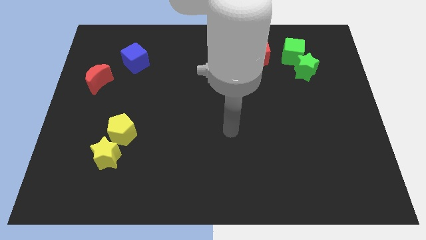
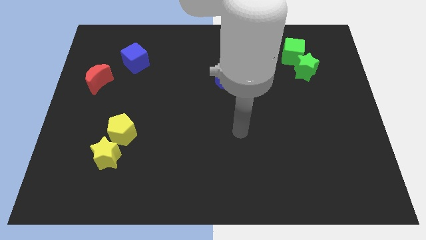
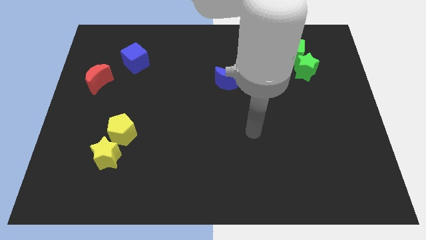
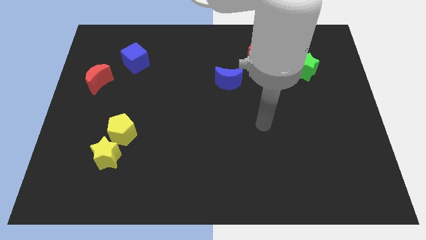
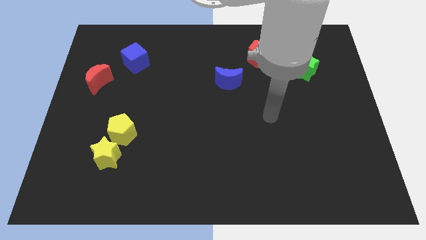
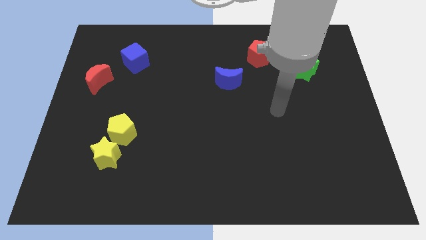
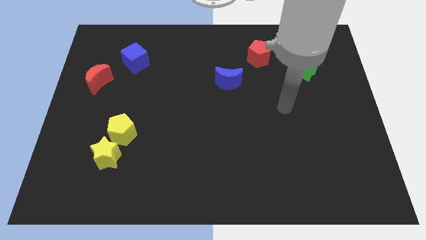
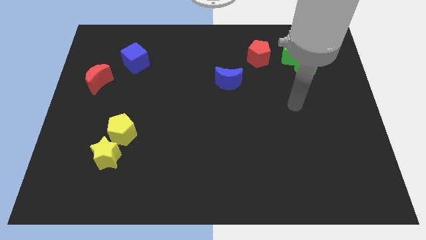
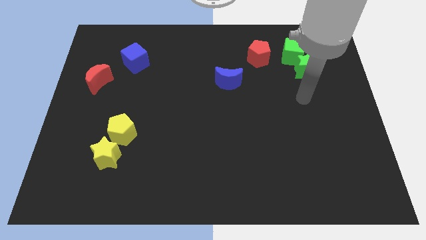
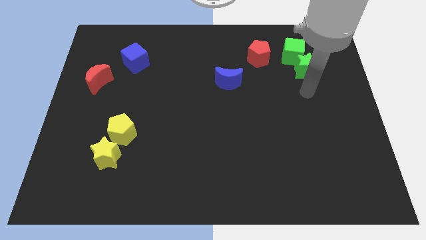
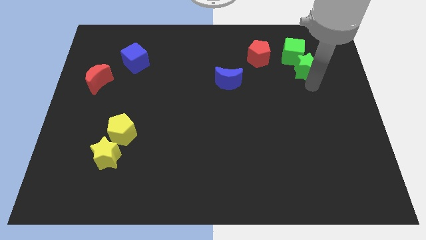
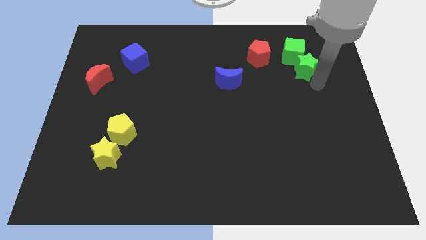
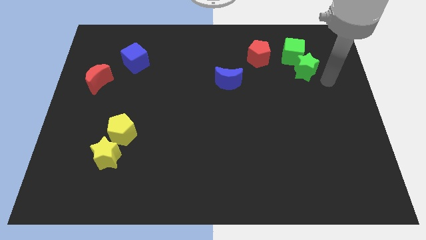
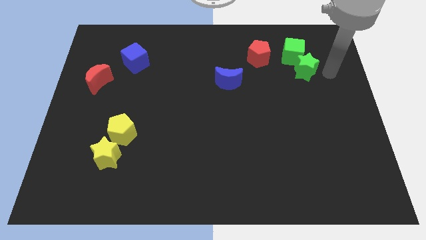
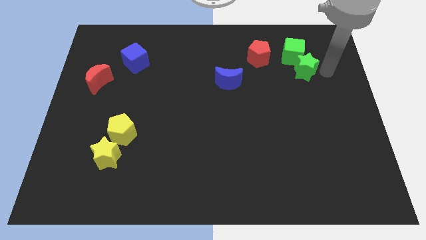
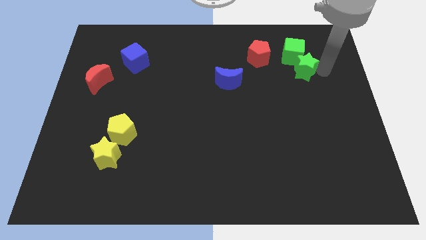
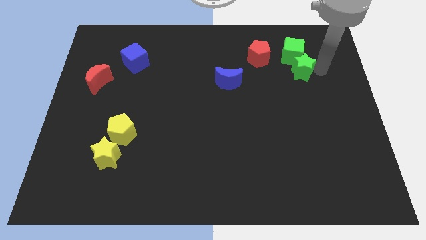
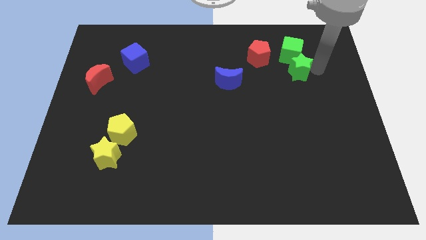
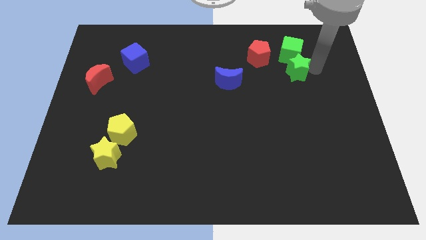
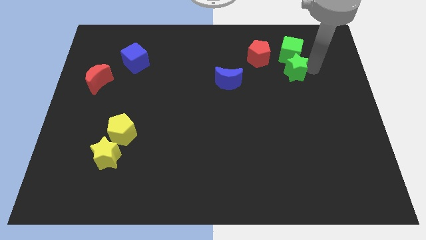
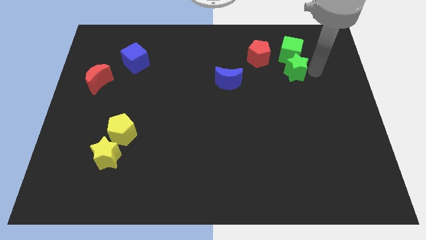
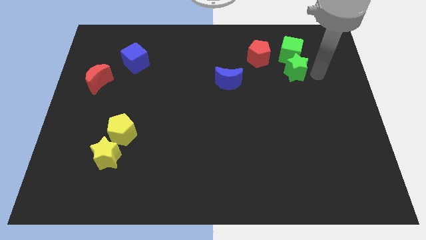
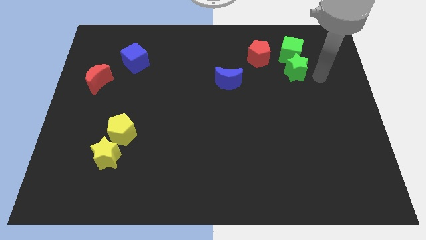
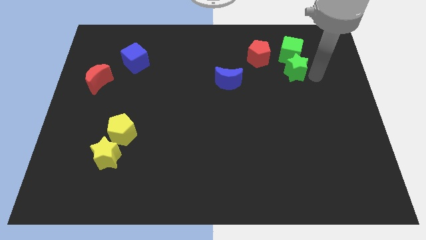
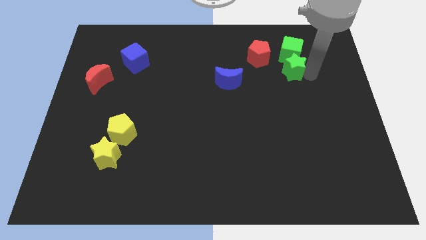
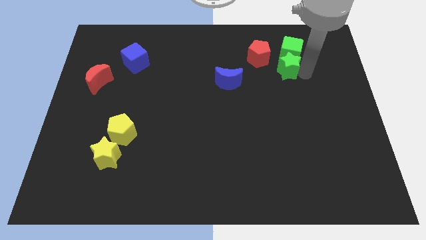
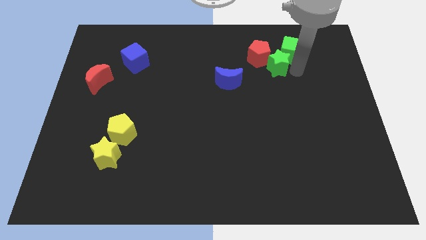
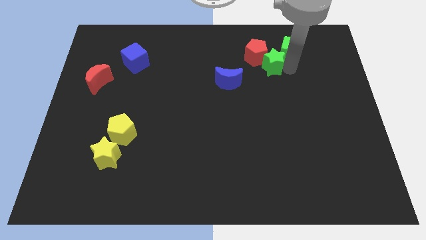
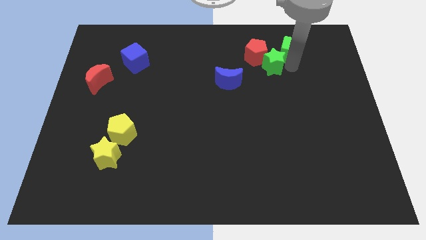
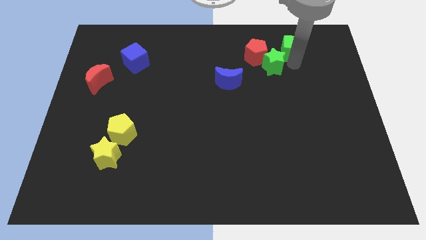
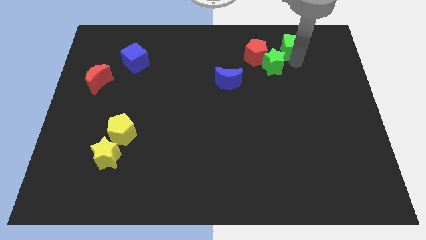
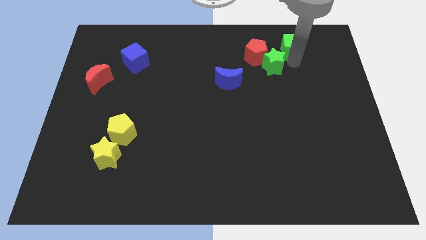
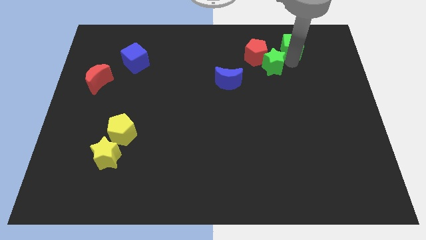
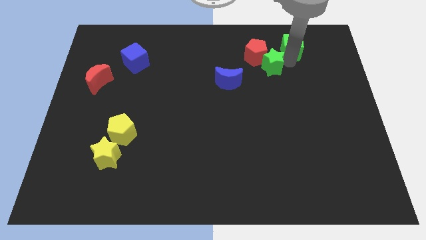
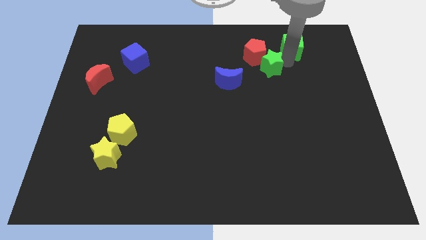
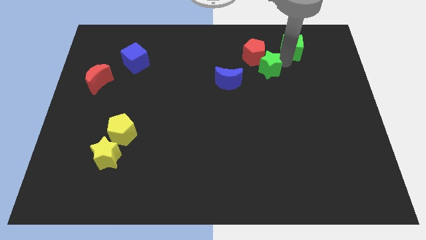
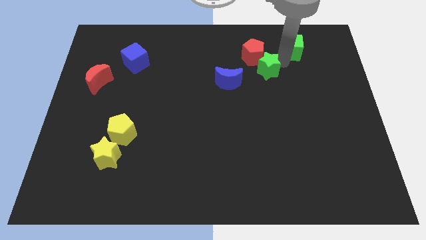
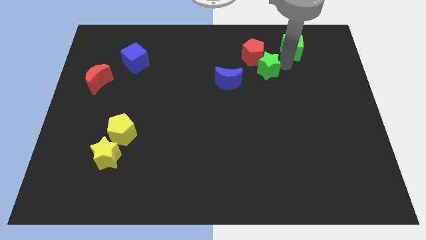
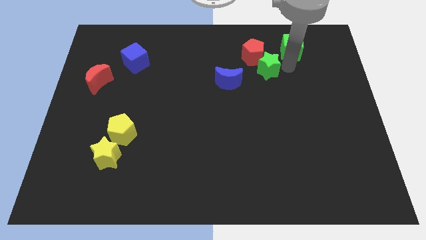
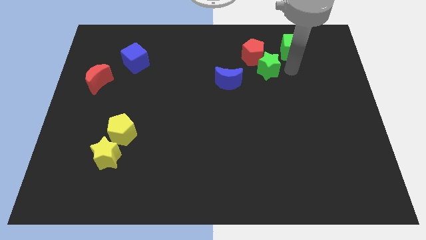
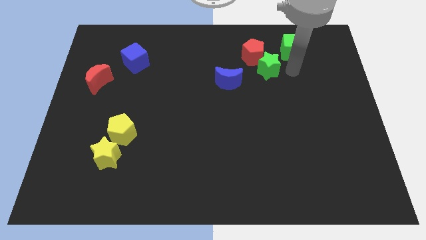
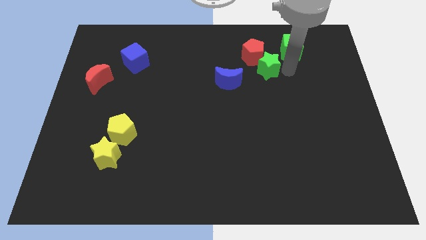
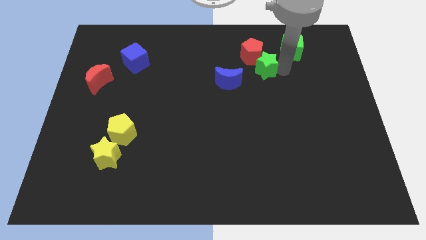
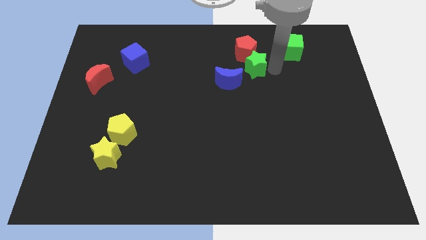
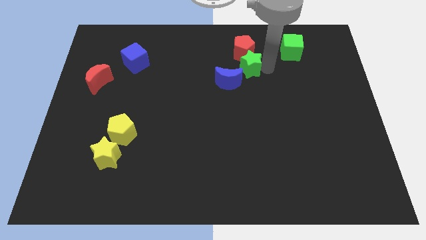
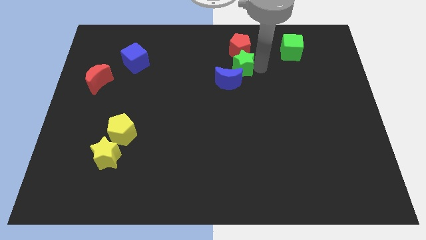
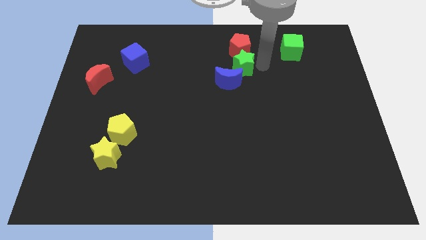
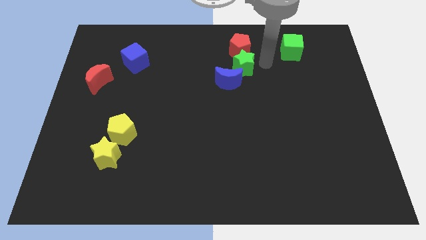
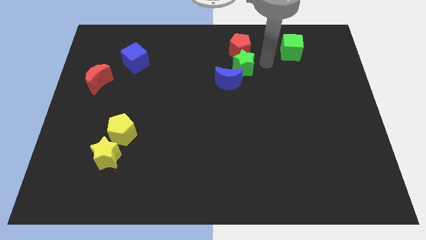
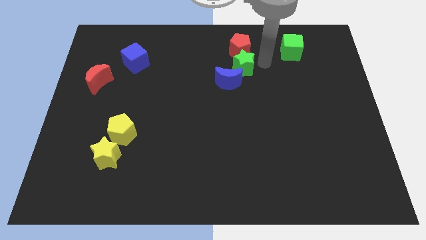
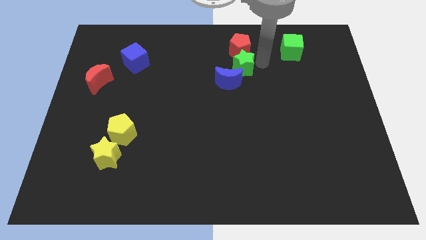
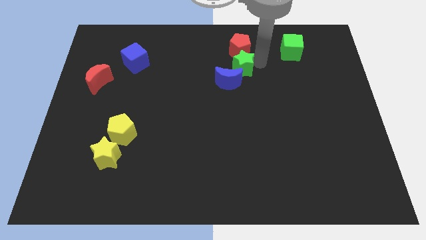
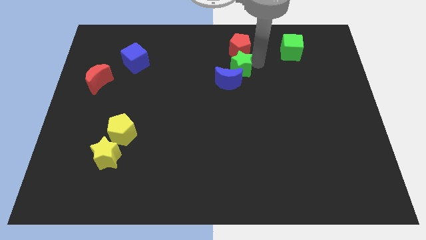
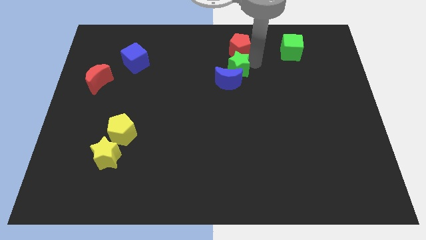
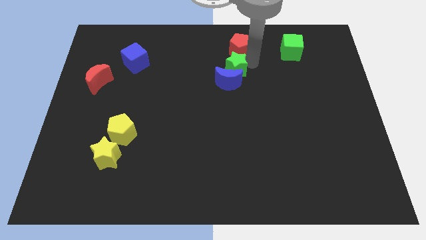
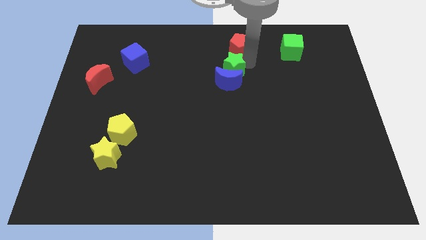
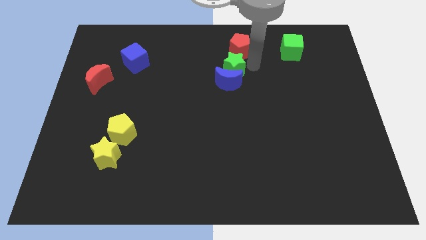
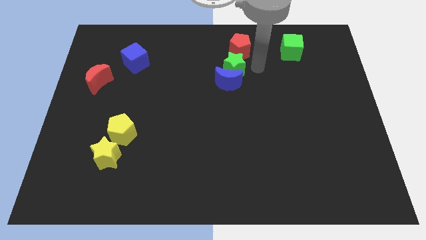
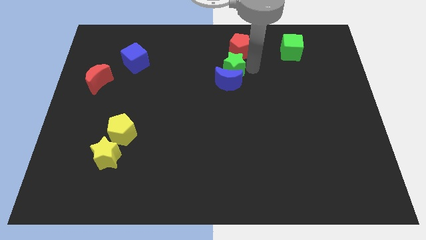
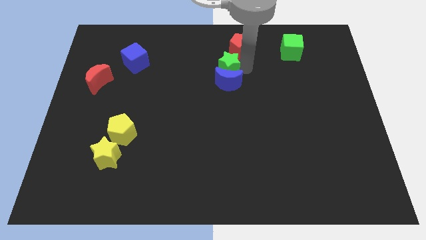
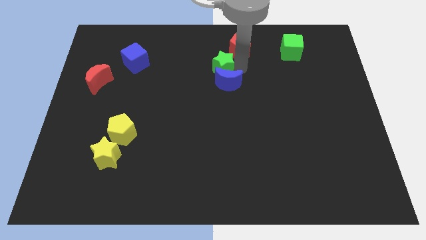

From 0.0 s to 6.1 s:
push the green star left

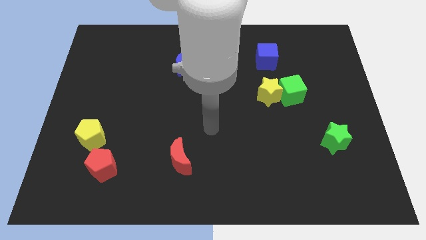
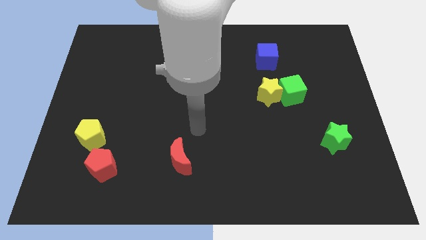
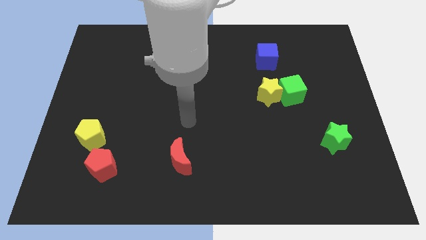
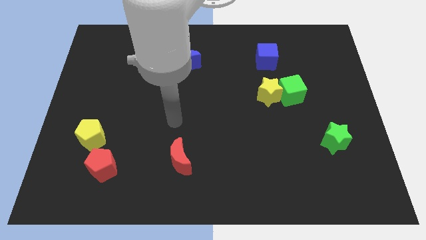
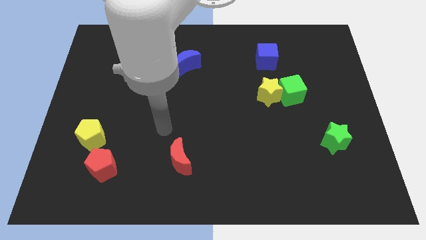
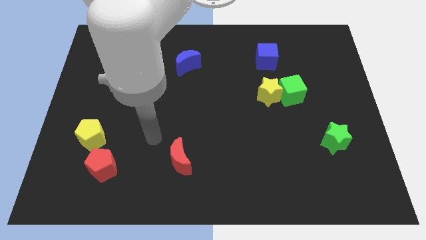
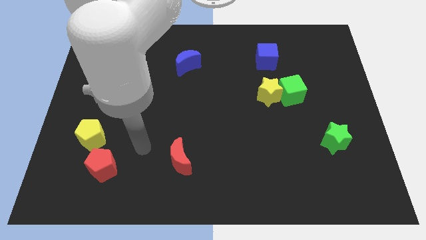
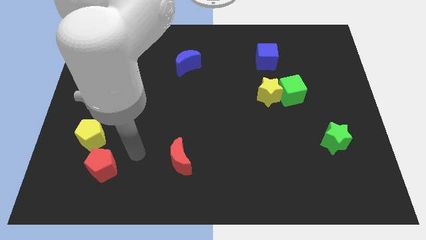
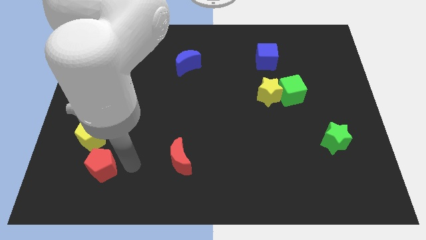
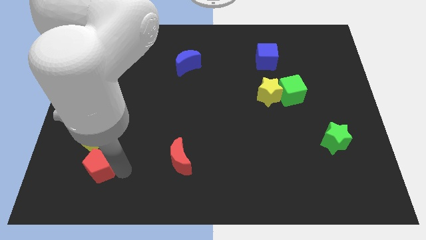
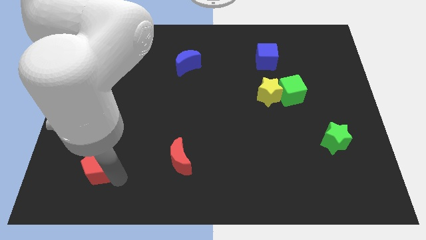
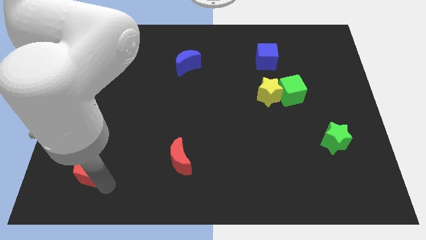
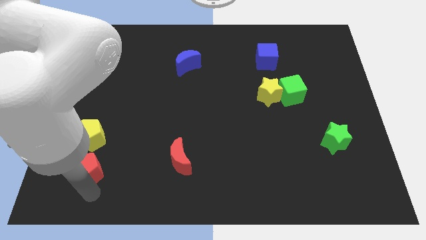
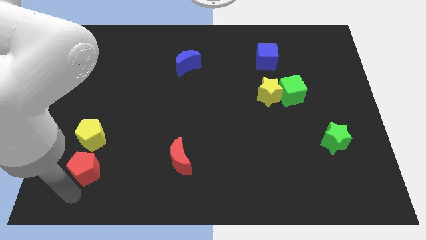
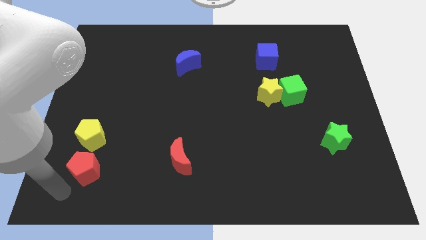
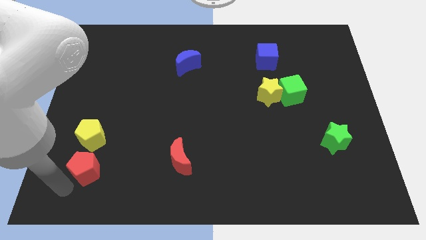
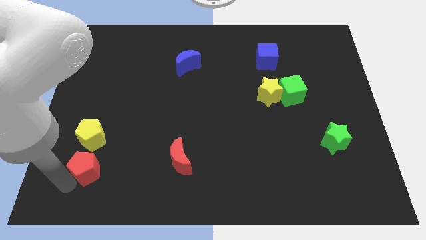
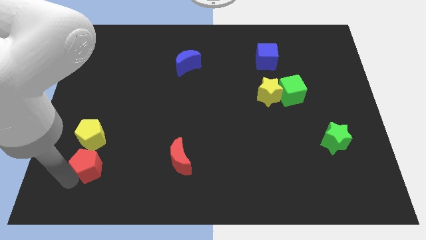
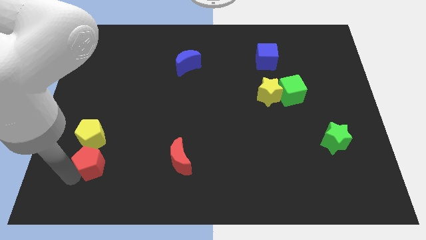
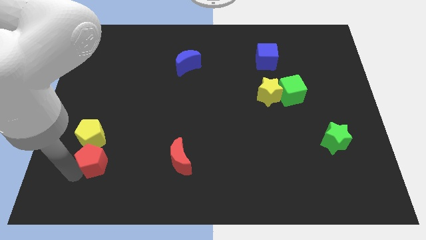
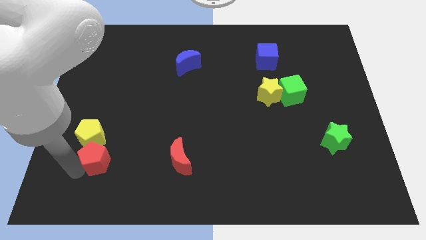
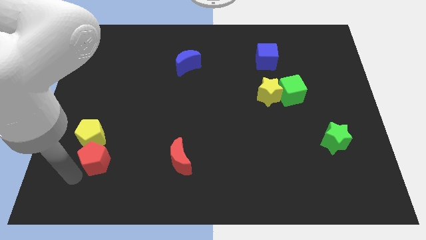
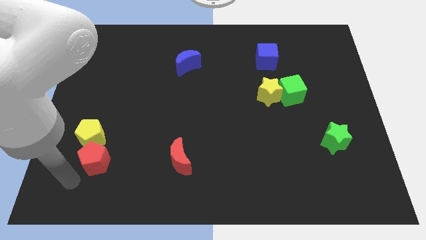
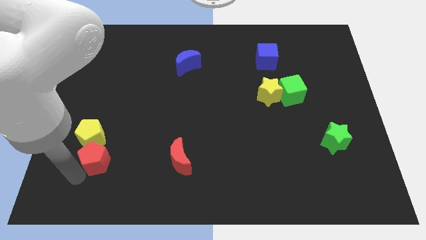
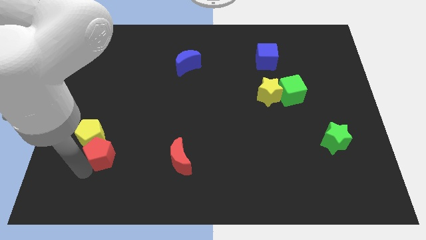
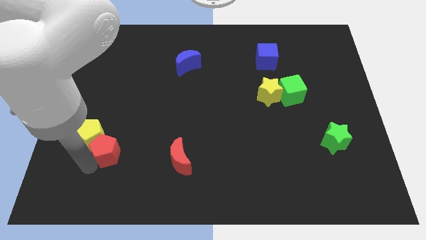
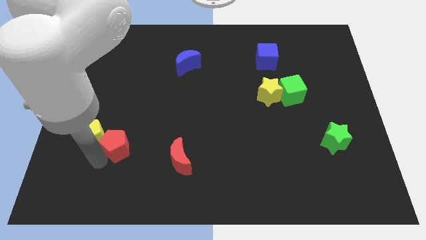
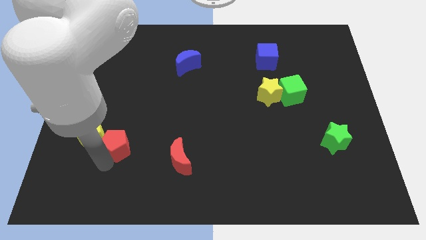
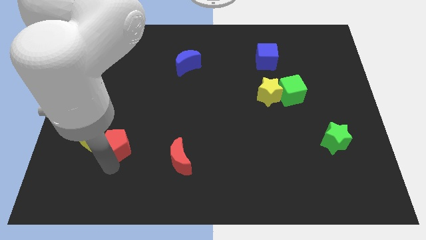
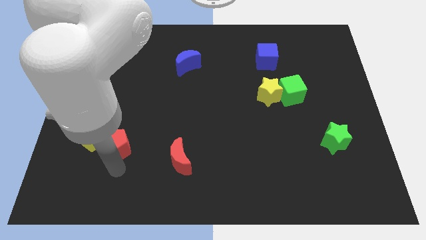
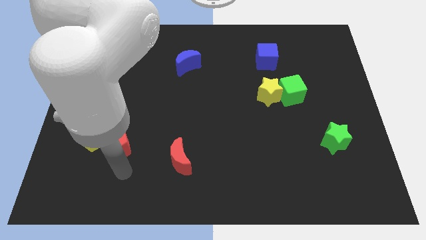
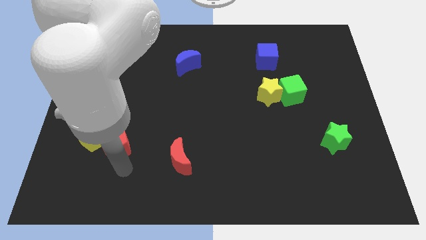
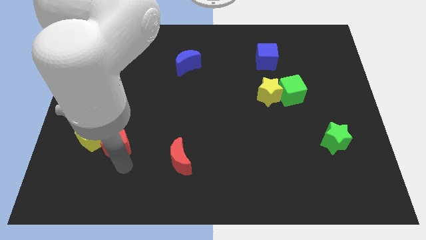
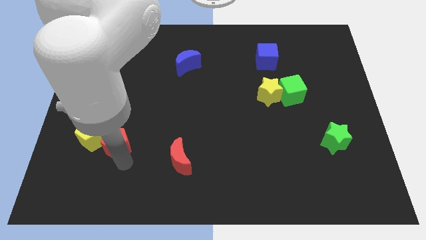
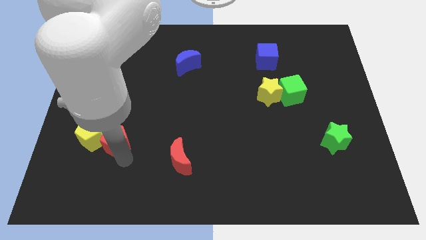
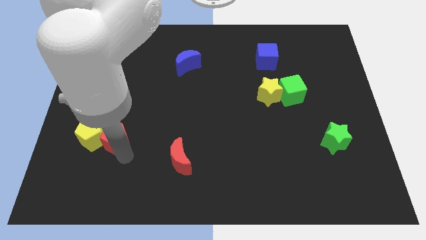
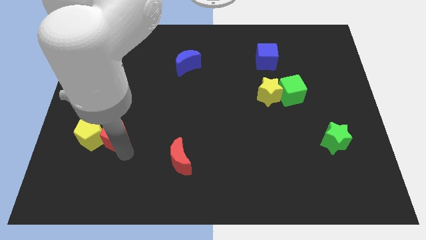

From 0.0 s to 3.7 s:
slightly move the red pentagon upwards
